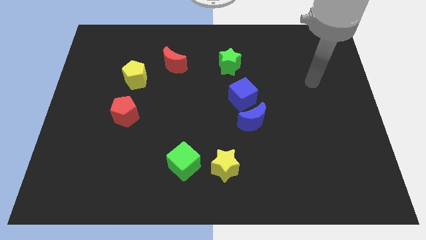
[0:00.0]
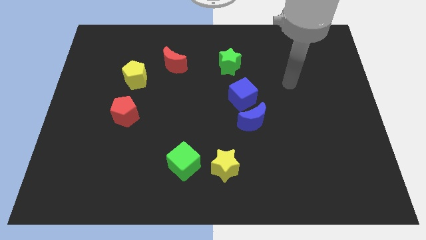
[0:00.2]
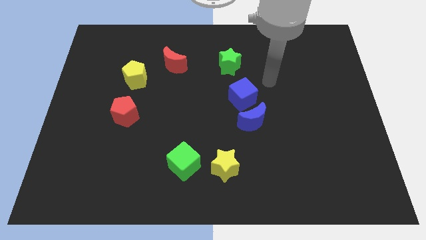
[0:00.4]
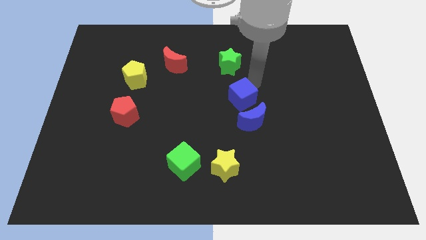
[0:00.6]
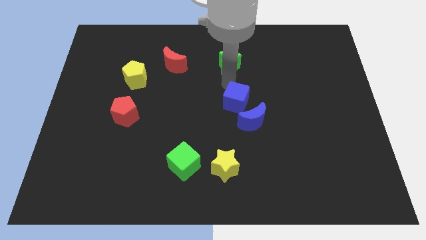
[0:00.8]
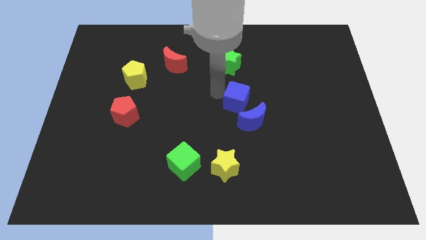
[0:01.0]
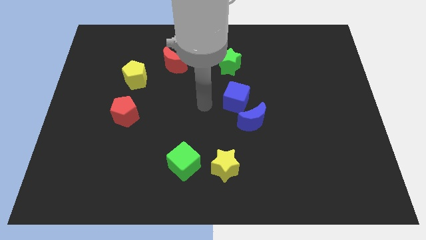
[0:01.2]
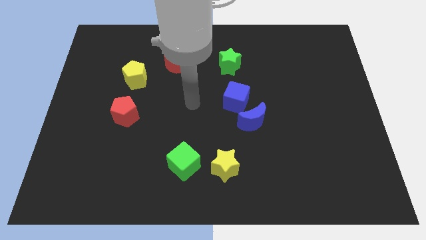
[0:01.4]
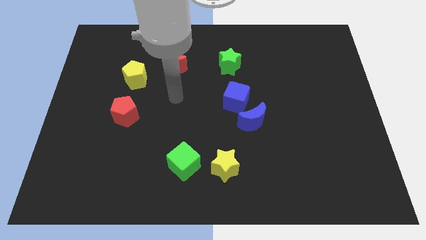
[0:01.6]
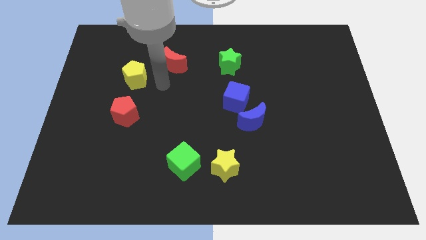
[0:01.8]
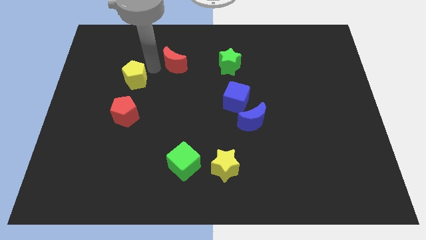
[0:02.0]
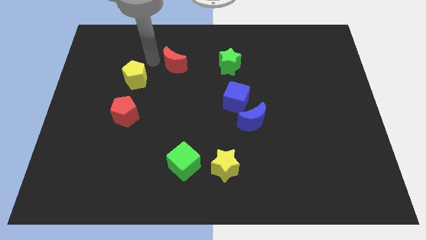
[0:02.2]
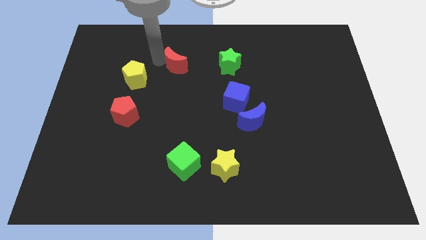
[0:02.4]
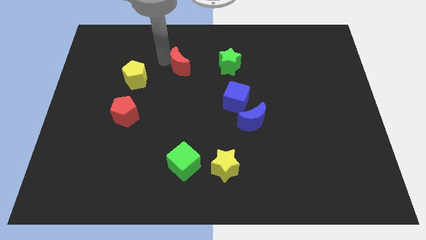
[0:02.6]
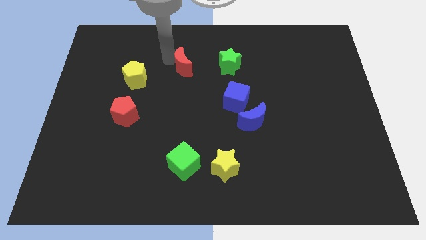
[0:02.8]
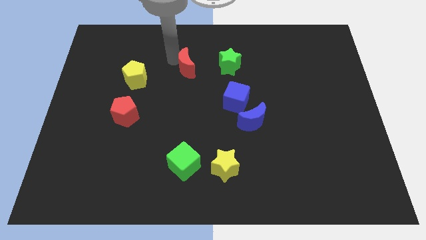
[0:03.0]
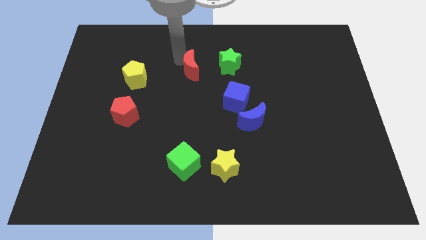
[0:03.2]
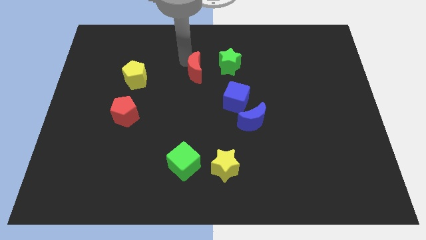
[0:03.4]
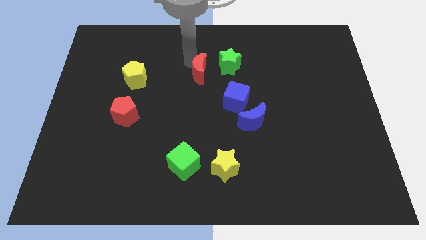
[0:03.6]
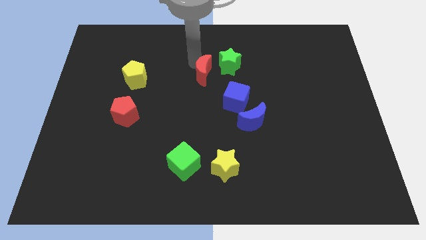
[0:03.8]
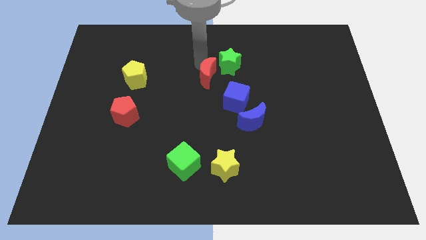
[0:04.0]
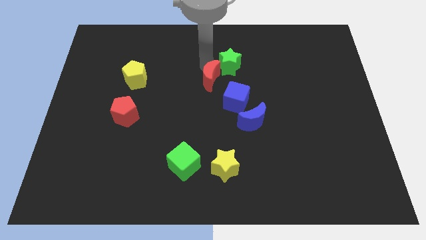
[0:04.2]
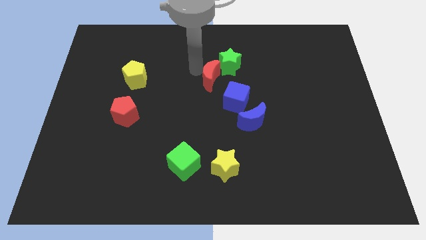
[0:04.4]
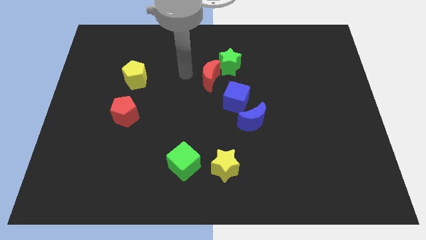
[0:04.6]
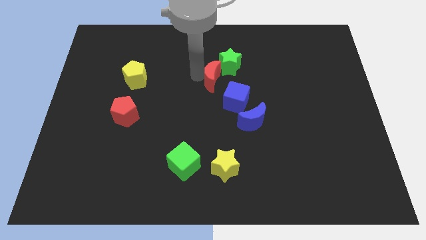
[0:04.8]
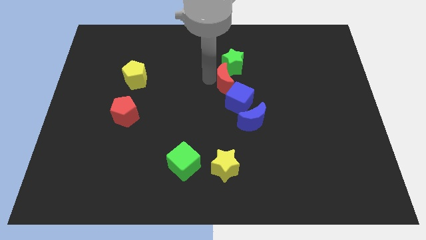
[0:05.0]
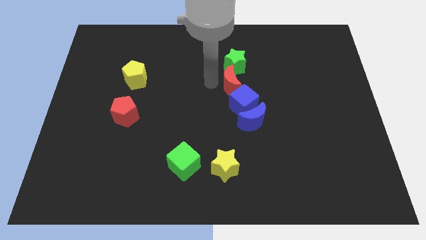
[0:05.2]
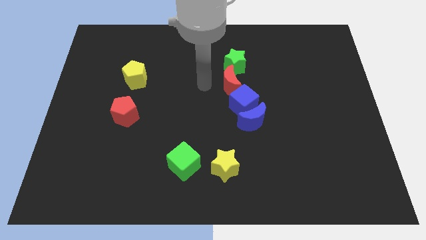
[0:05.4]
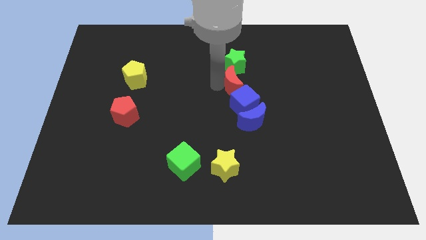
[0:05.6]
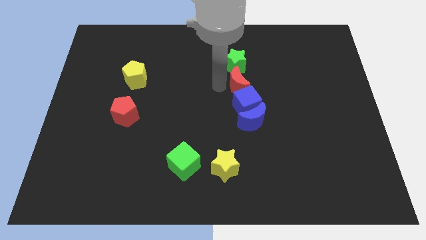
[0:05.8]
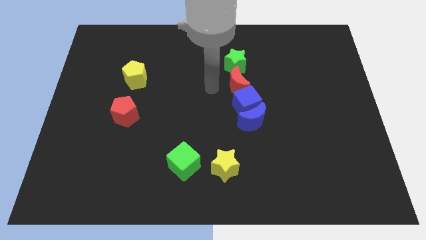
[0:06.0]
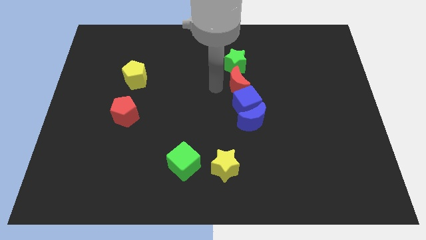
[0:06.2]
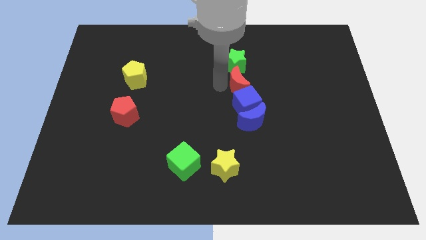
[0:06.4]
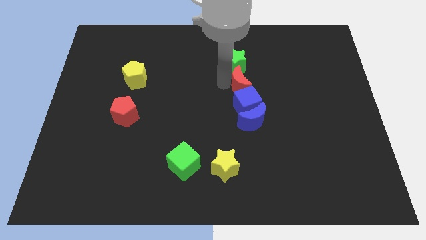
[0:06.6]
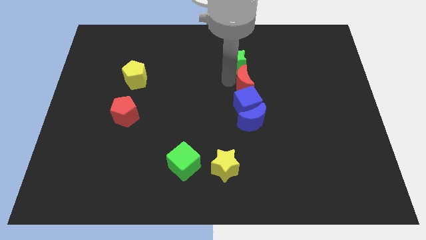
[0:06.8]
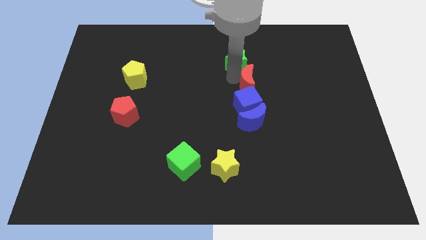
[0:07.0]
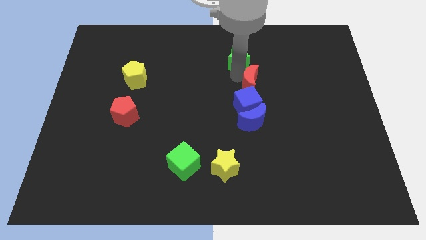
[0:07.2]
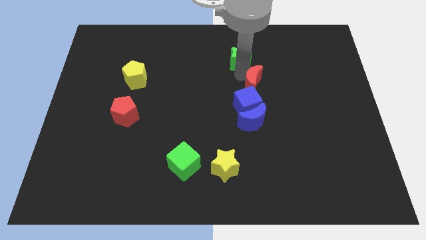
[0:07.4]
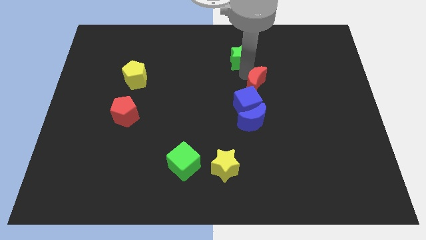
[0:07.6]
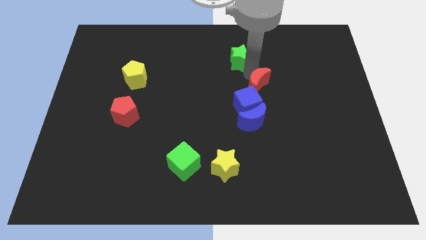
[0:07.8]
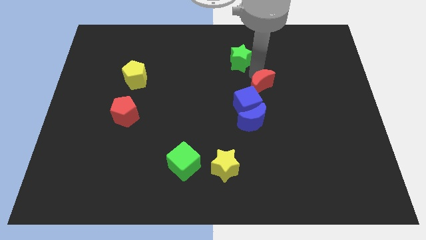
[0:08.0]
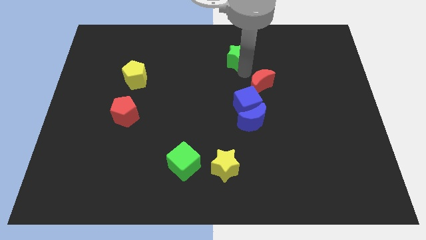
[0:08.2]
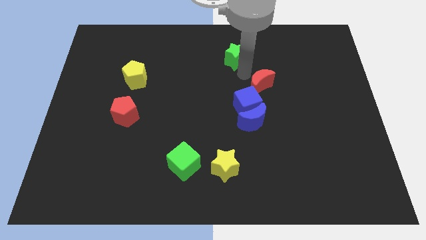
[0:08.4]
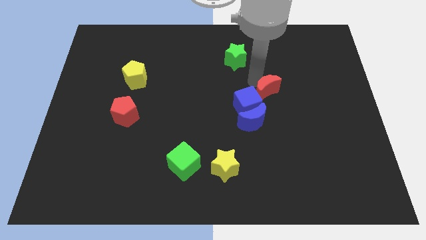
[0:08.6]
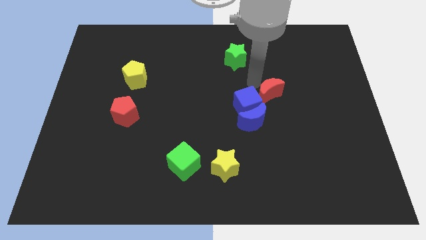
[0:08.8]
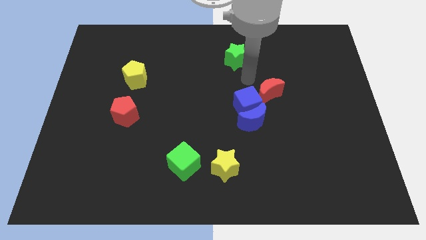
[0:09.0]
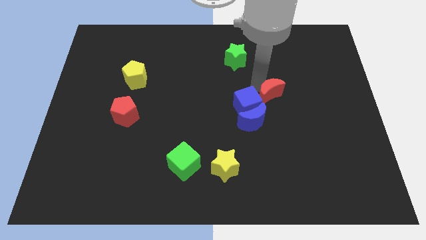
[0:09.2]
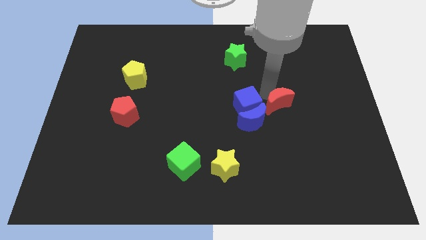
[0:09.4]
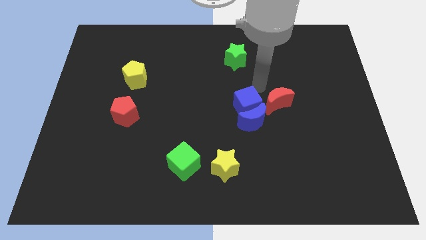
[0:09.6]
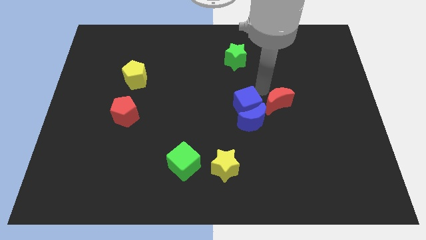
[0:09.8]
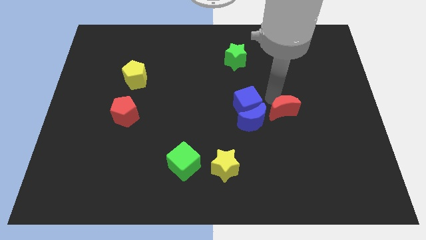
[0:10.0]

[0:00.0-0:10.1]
move the red moon to the right side of the blue moon

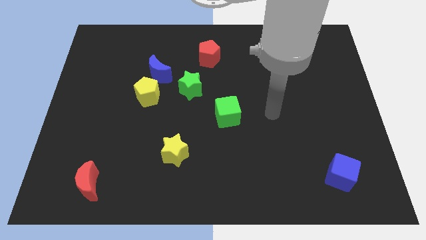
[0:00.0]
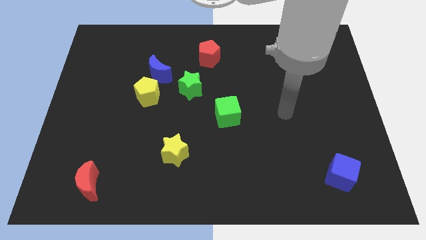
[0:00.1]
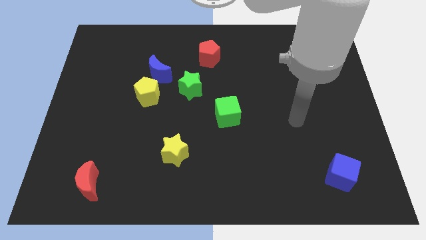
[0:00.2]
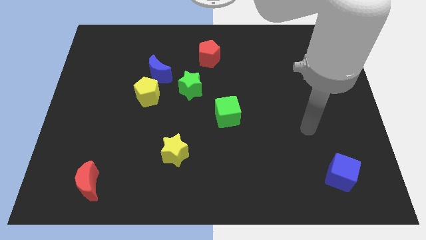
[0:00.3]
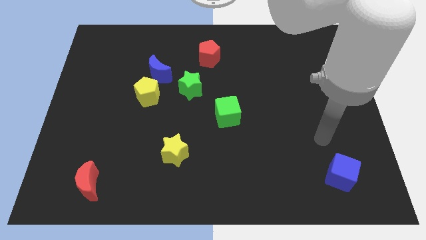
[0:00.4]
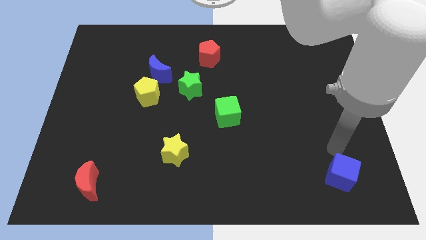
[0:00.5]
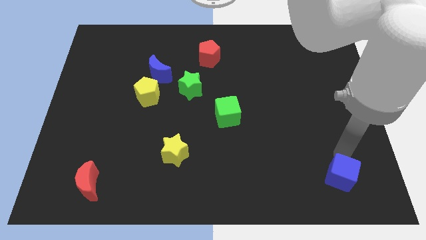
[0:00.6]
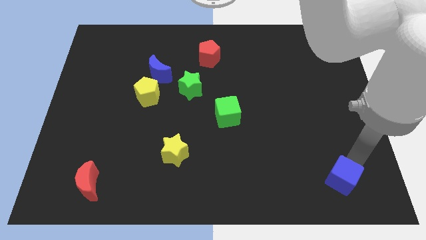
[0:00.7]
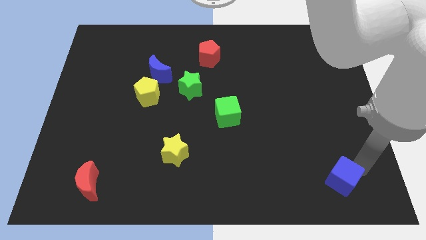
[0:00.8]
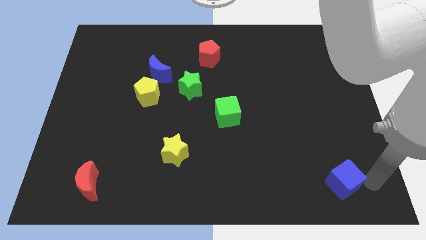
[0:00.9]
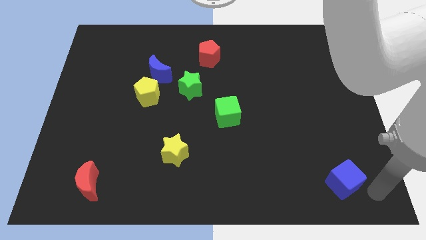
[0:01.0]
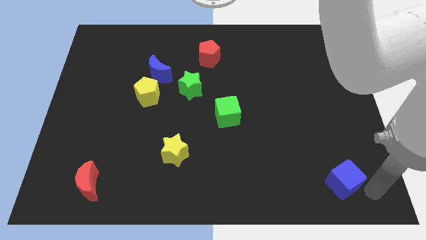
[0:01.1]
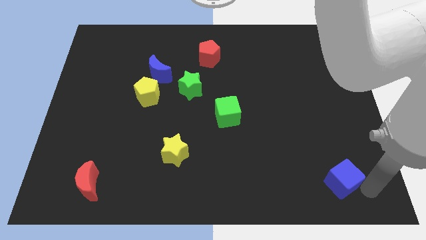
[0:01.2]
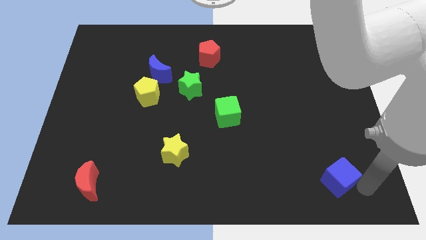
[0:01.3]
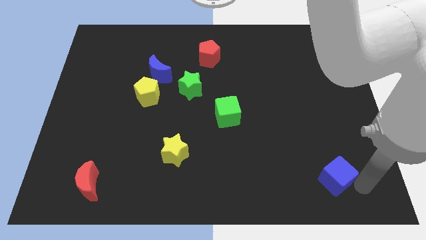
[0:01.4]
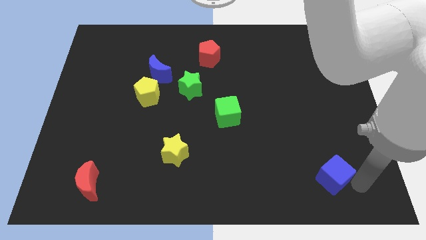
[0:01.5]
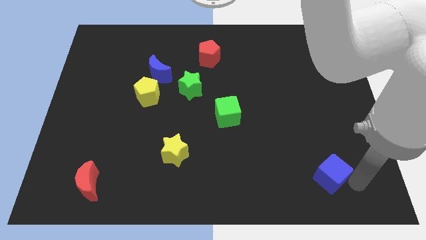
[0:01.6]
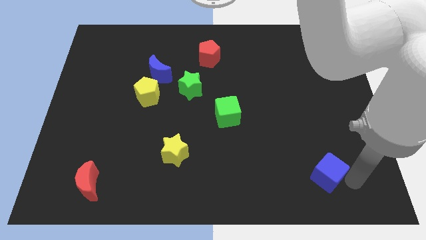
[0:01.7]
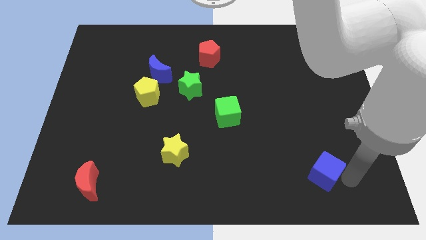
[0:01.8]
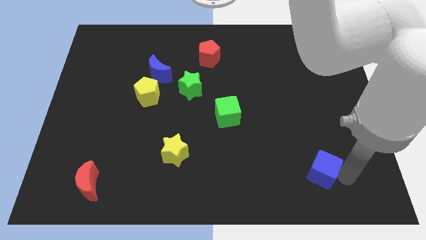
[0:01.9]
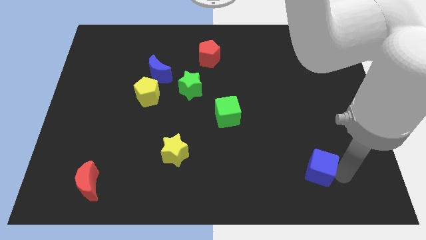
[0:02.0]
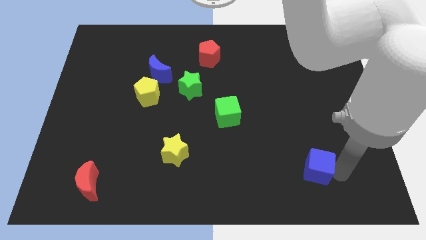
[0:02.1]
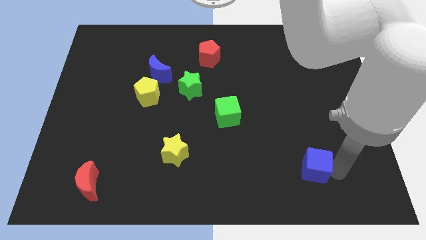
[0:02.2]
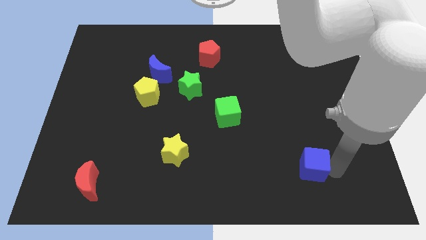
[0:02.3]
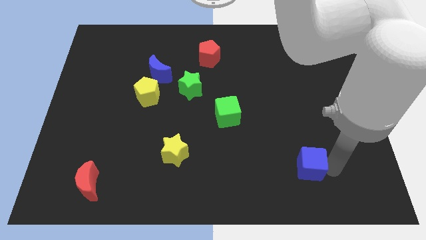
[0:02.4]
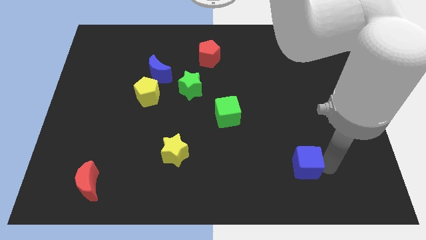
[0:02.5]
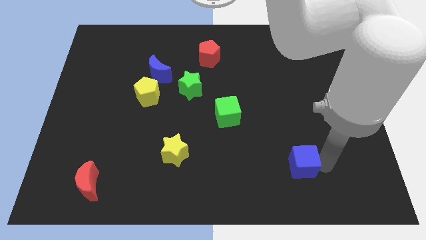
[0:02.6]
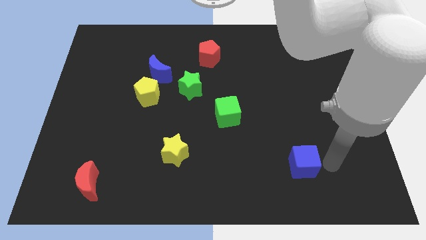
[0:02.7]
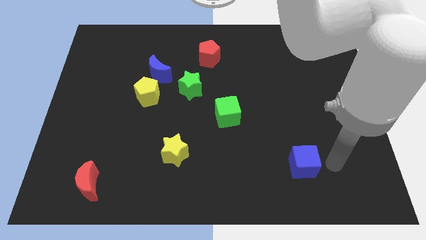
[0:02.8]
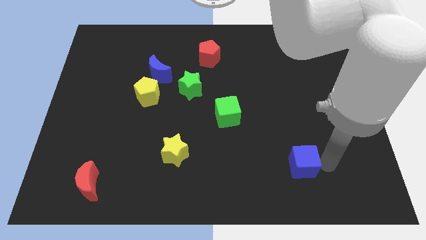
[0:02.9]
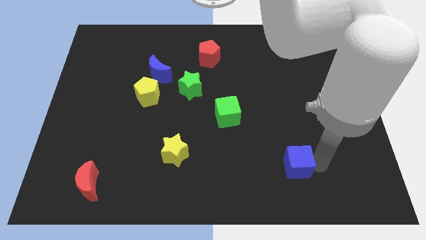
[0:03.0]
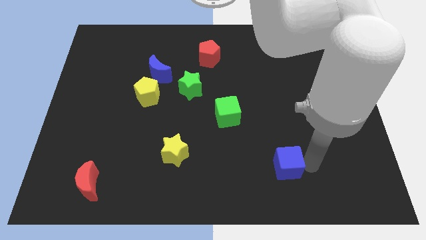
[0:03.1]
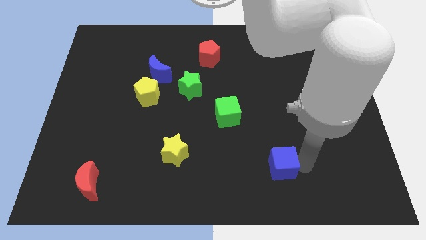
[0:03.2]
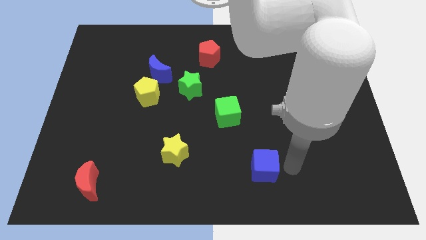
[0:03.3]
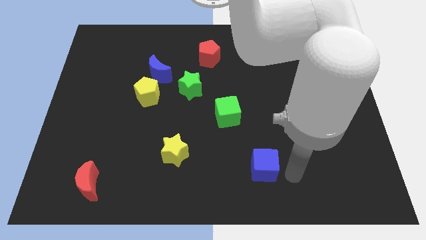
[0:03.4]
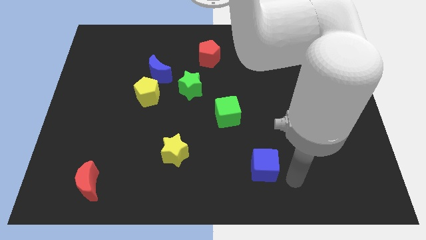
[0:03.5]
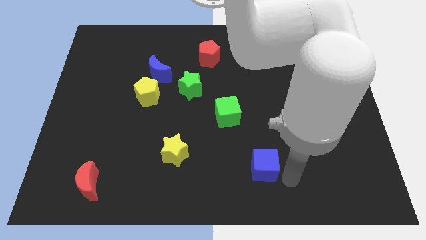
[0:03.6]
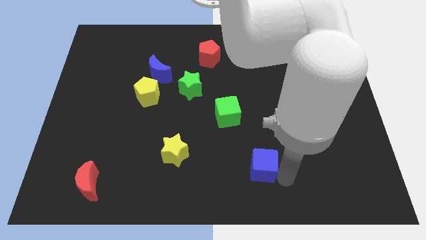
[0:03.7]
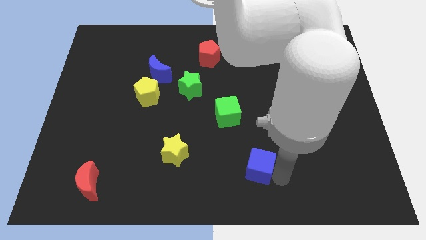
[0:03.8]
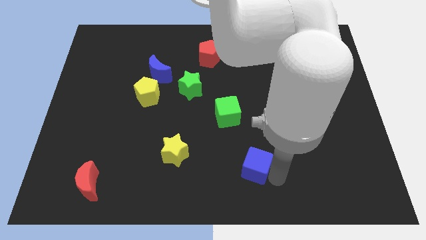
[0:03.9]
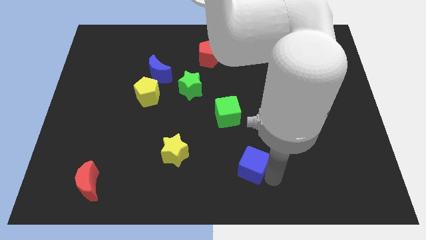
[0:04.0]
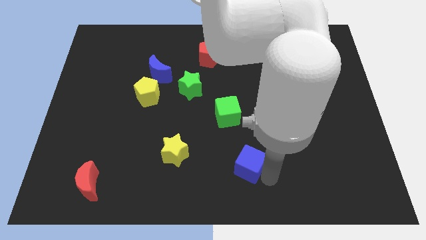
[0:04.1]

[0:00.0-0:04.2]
move the blue cube to the bottom side of the green cube
